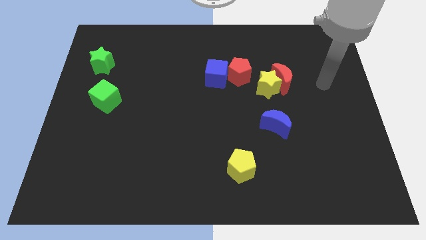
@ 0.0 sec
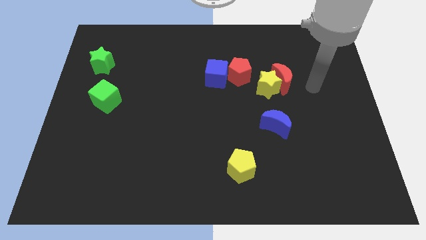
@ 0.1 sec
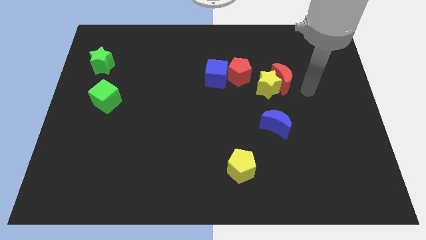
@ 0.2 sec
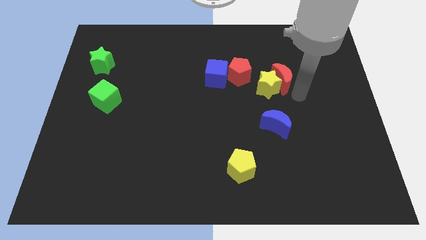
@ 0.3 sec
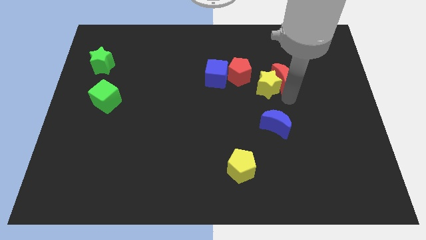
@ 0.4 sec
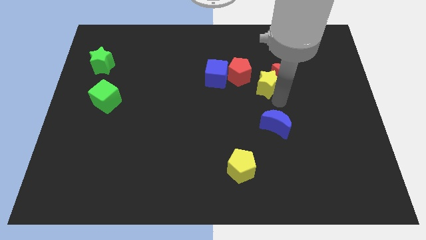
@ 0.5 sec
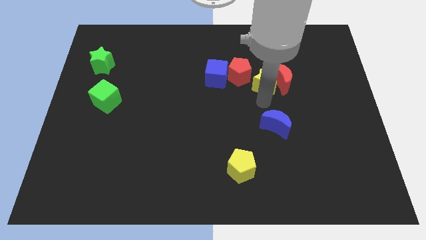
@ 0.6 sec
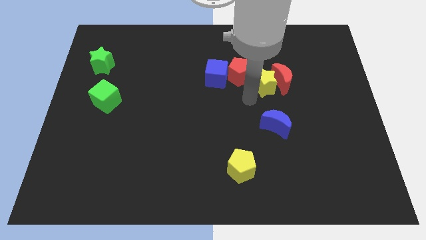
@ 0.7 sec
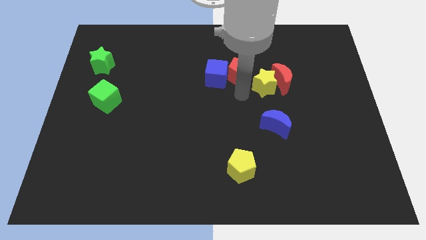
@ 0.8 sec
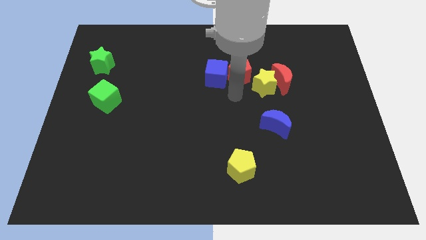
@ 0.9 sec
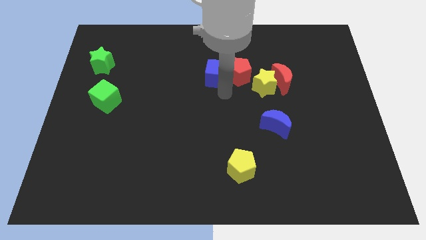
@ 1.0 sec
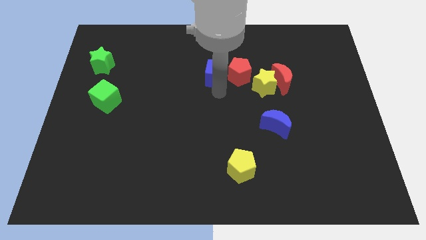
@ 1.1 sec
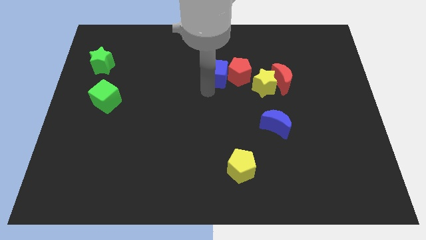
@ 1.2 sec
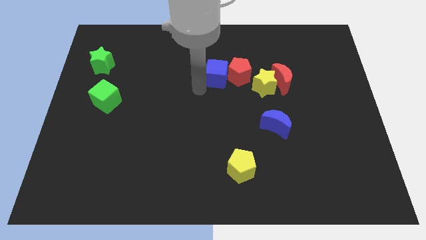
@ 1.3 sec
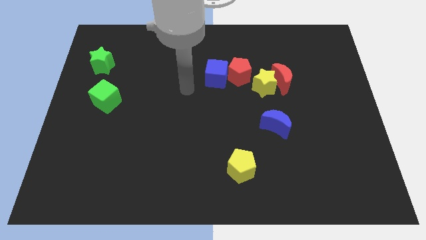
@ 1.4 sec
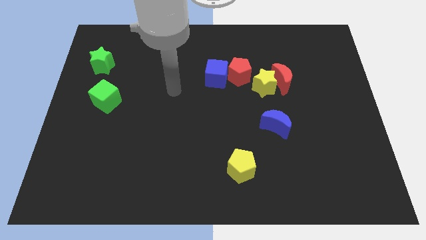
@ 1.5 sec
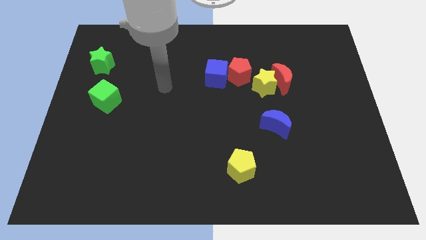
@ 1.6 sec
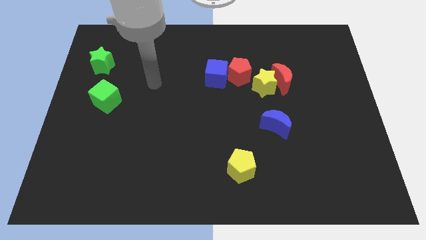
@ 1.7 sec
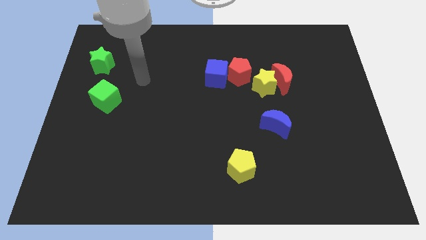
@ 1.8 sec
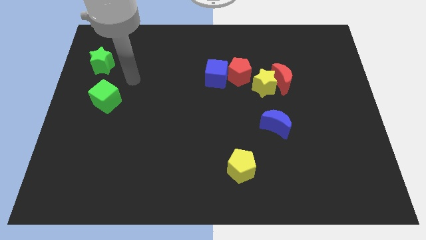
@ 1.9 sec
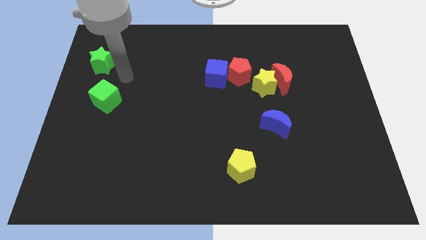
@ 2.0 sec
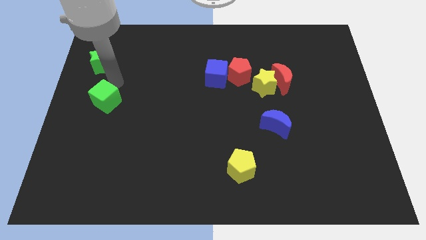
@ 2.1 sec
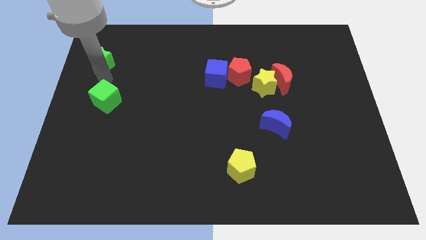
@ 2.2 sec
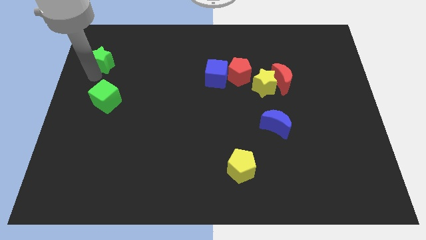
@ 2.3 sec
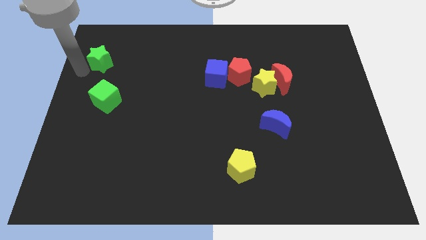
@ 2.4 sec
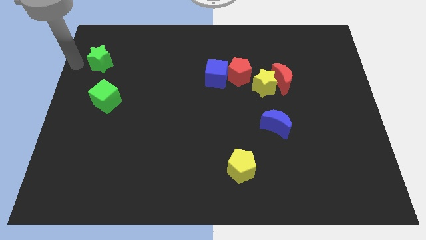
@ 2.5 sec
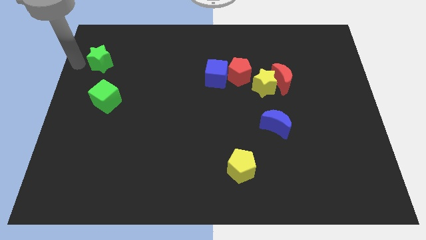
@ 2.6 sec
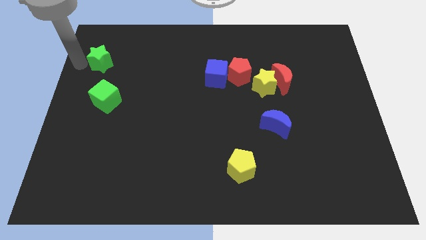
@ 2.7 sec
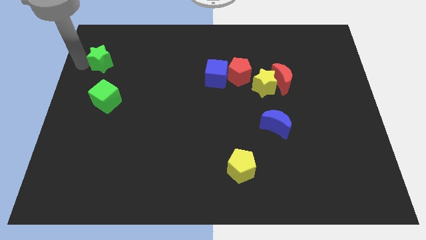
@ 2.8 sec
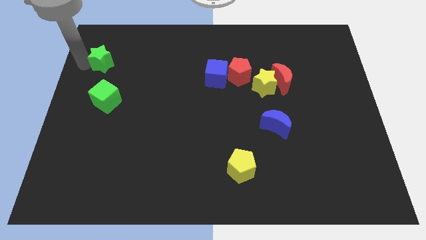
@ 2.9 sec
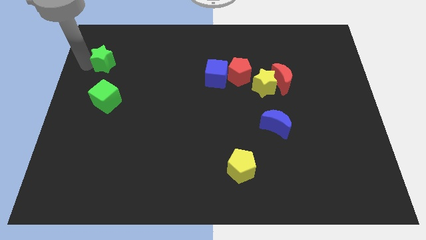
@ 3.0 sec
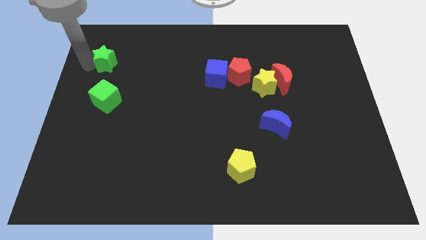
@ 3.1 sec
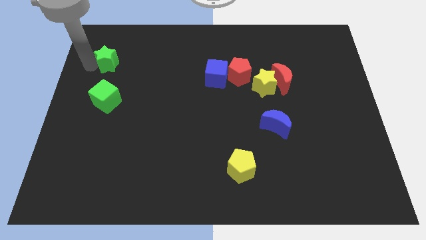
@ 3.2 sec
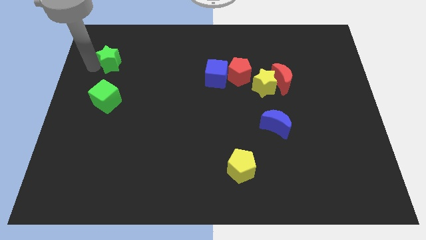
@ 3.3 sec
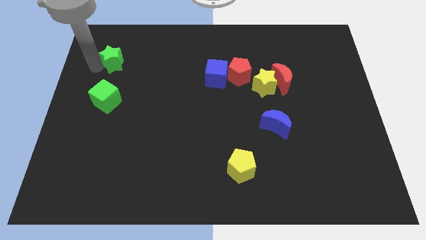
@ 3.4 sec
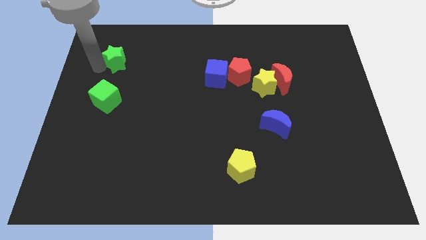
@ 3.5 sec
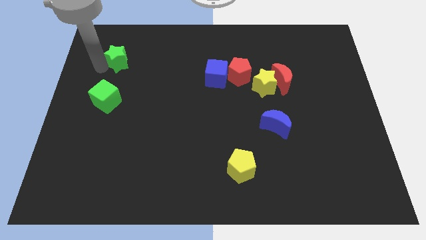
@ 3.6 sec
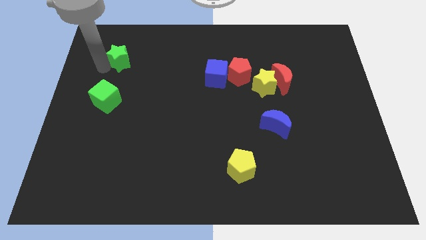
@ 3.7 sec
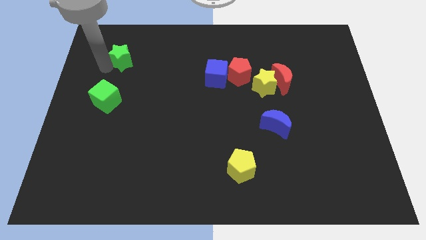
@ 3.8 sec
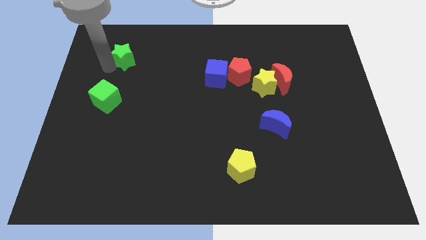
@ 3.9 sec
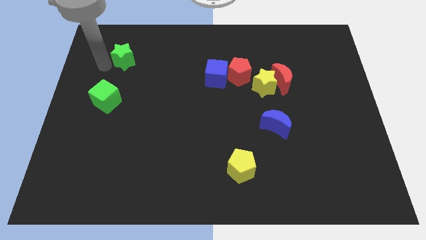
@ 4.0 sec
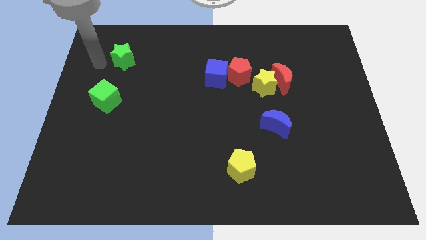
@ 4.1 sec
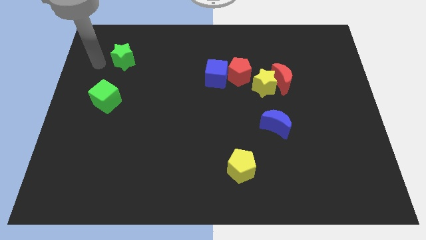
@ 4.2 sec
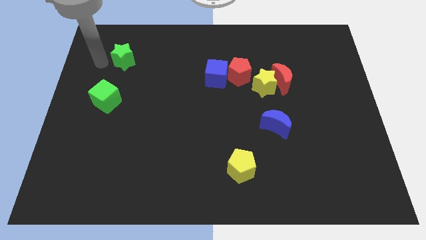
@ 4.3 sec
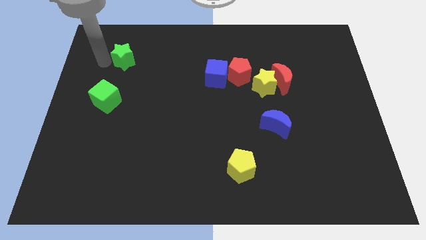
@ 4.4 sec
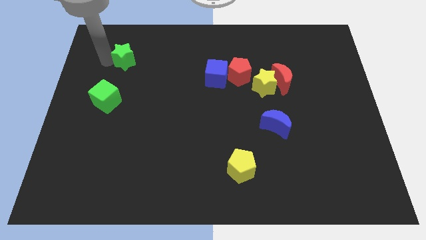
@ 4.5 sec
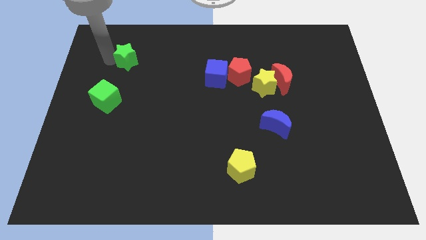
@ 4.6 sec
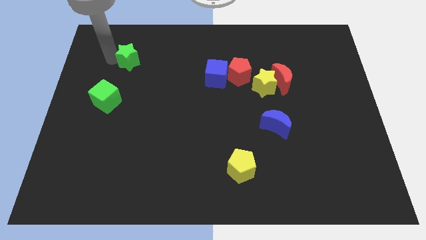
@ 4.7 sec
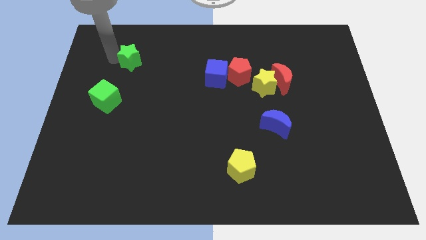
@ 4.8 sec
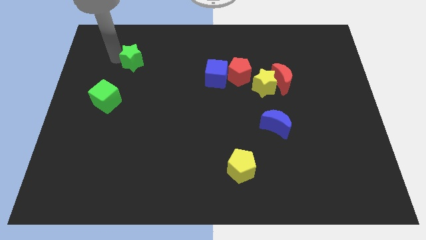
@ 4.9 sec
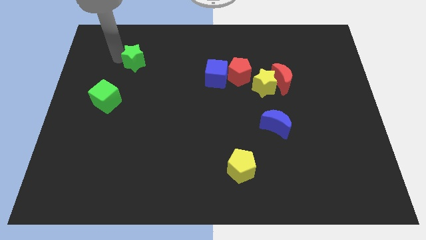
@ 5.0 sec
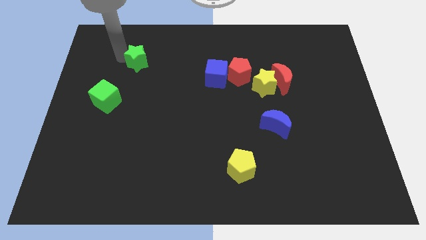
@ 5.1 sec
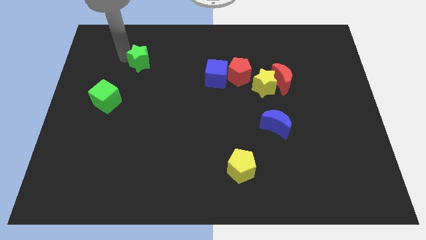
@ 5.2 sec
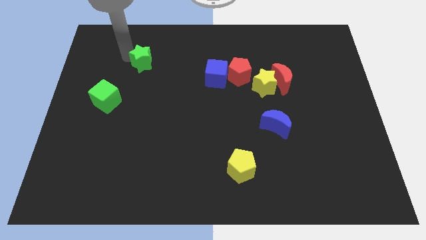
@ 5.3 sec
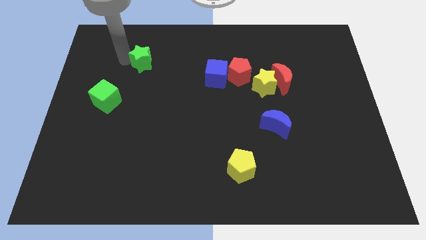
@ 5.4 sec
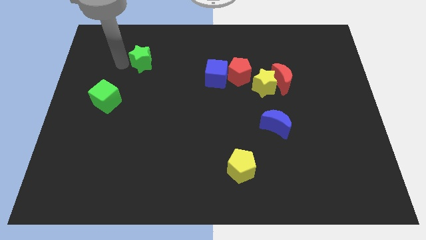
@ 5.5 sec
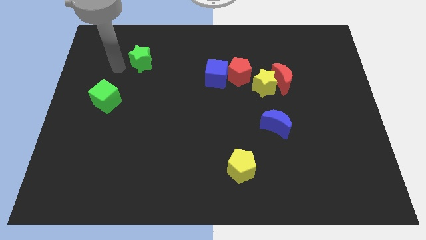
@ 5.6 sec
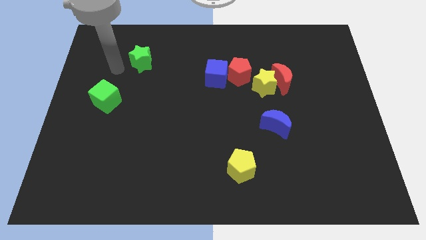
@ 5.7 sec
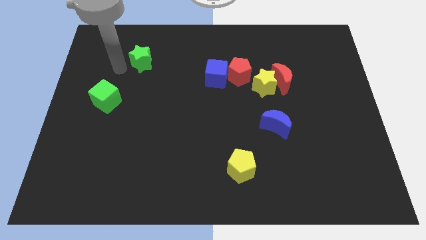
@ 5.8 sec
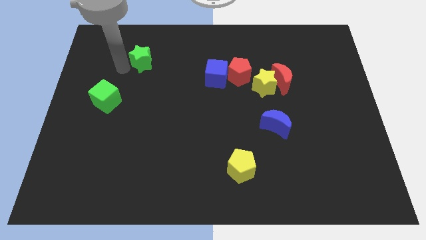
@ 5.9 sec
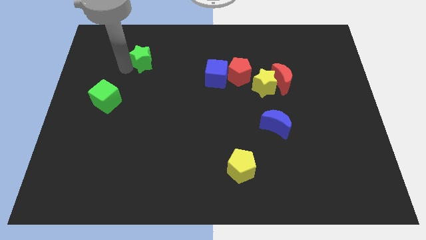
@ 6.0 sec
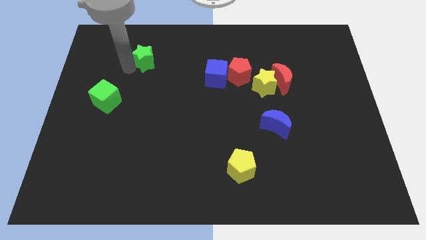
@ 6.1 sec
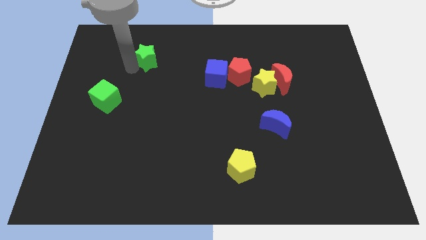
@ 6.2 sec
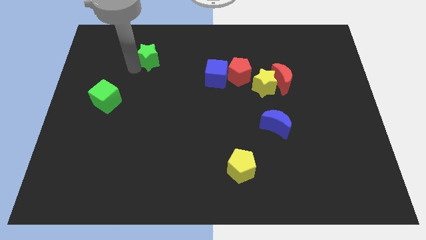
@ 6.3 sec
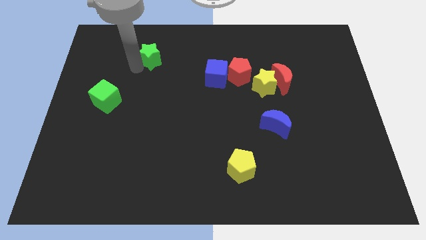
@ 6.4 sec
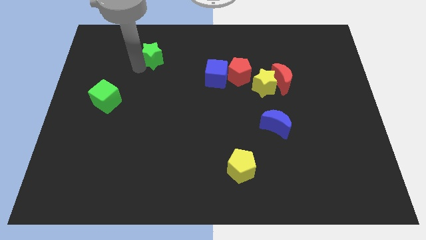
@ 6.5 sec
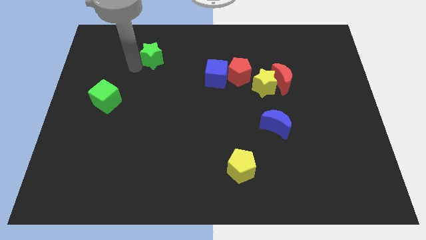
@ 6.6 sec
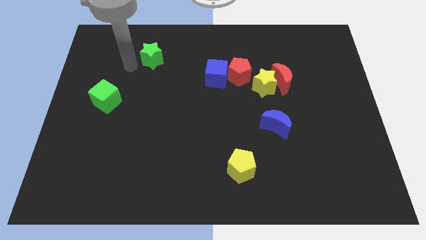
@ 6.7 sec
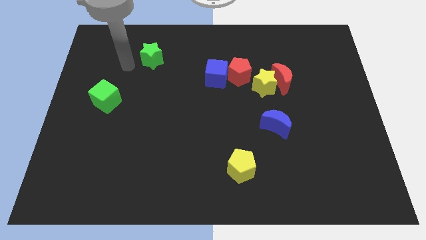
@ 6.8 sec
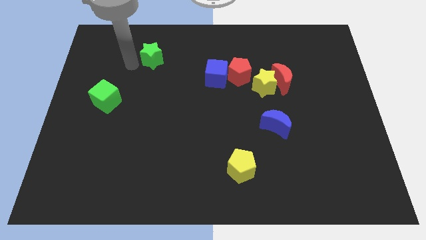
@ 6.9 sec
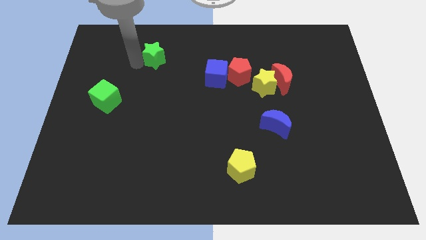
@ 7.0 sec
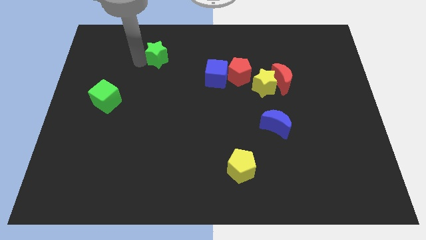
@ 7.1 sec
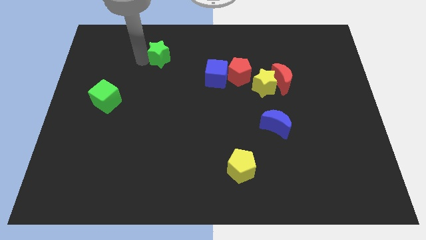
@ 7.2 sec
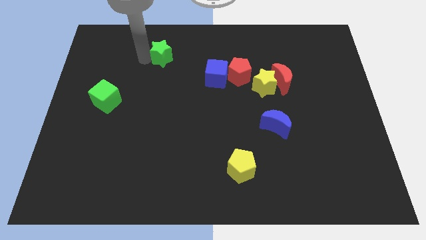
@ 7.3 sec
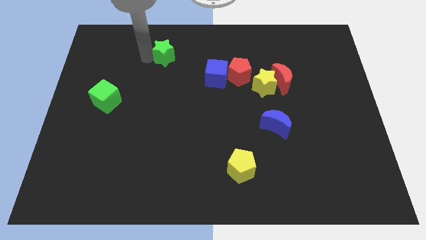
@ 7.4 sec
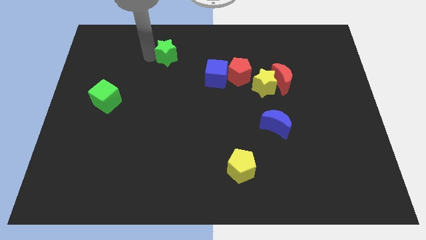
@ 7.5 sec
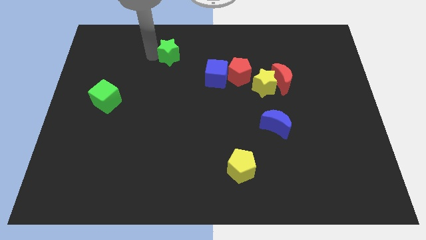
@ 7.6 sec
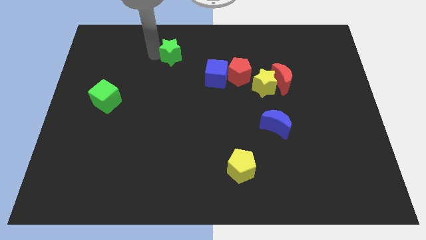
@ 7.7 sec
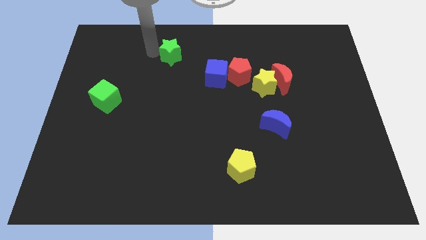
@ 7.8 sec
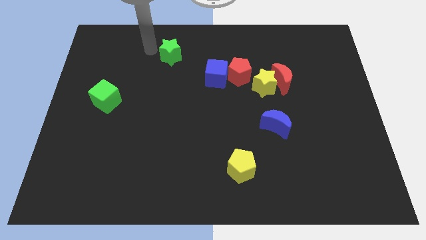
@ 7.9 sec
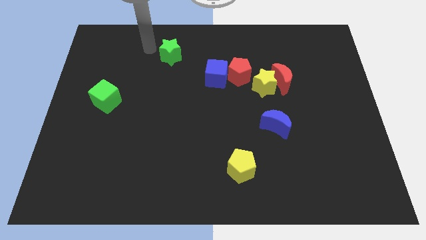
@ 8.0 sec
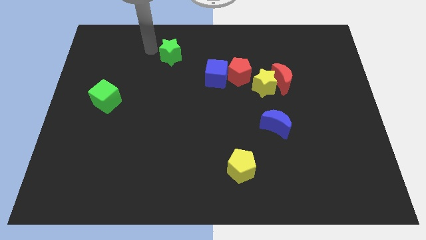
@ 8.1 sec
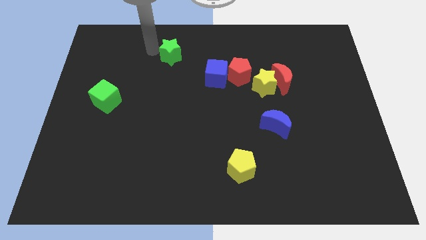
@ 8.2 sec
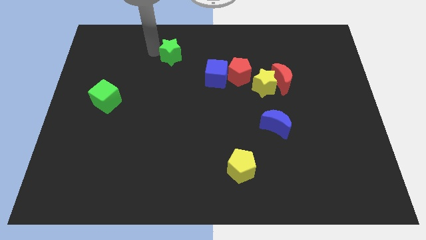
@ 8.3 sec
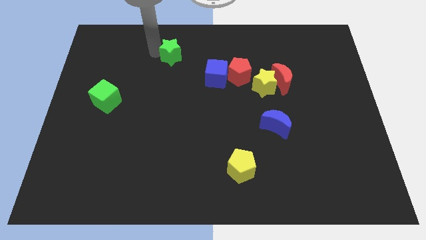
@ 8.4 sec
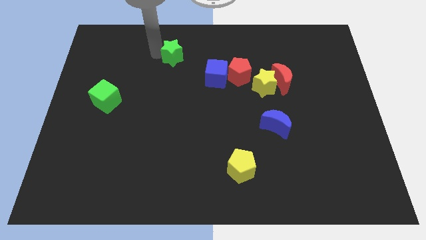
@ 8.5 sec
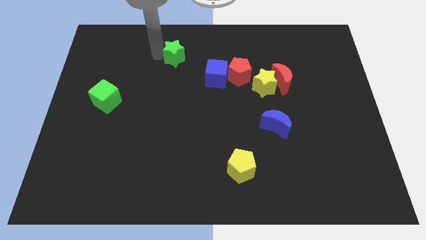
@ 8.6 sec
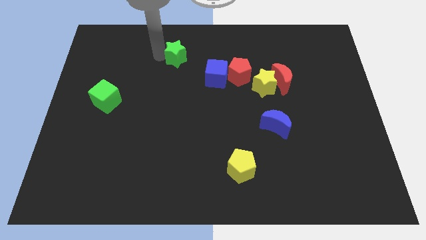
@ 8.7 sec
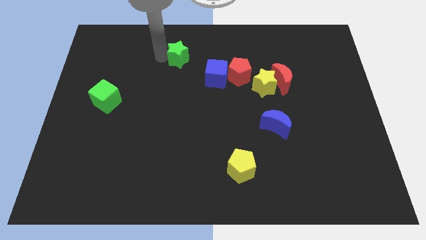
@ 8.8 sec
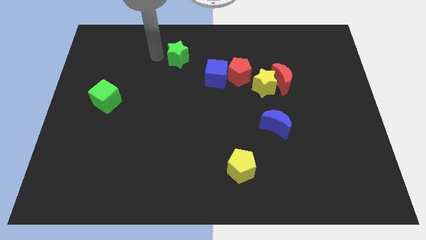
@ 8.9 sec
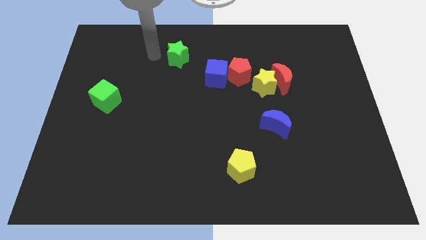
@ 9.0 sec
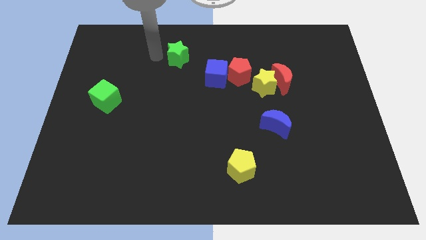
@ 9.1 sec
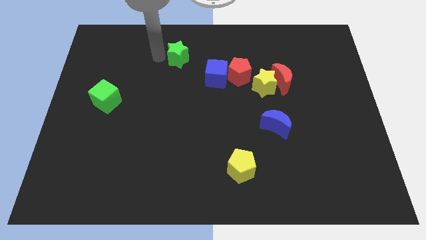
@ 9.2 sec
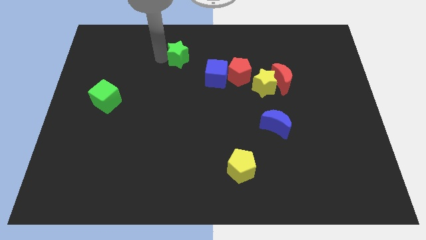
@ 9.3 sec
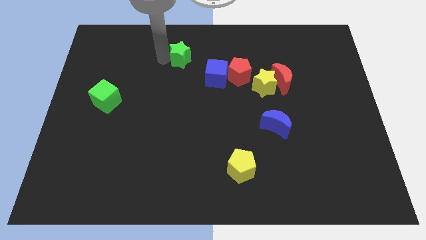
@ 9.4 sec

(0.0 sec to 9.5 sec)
push the green star right
